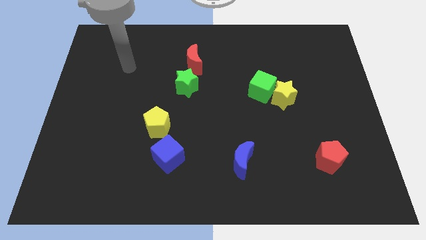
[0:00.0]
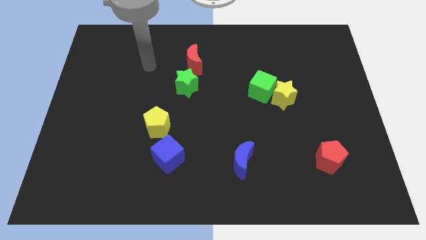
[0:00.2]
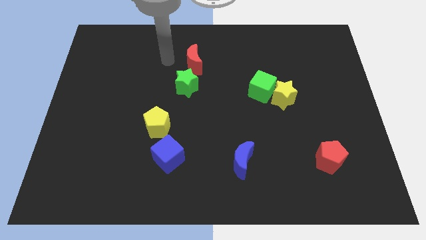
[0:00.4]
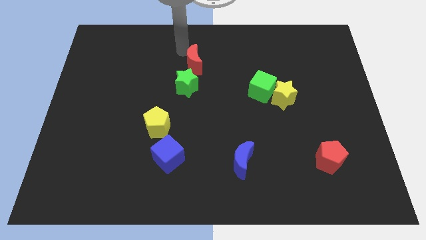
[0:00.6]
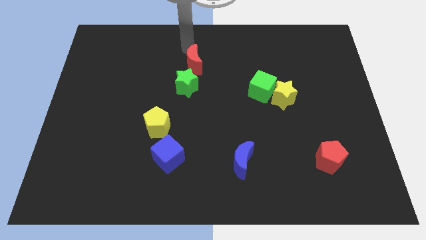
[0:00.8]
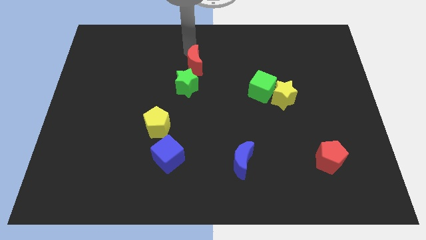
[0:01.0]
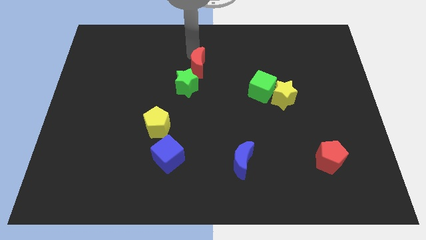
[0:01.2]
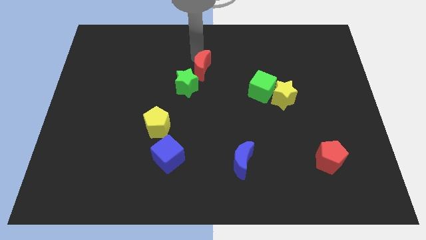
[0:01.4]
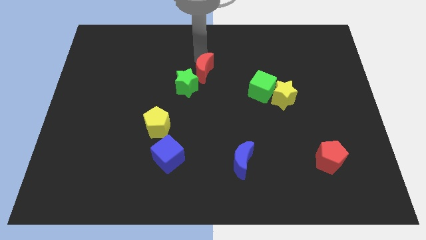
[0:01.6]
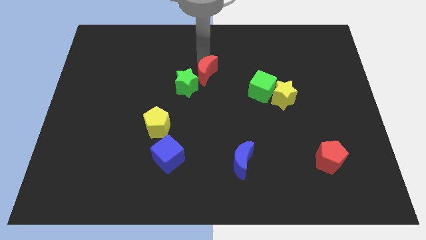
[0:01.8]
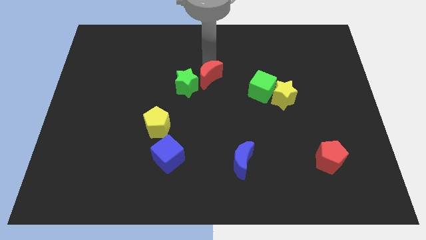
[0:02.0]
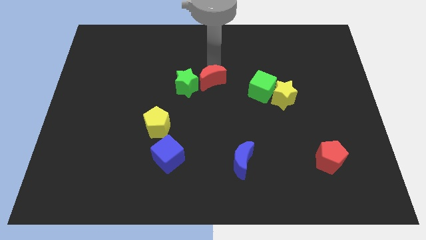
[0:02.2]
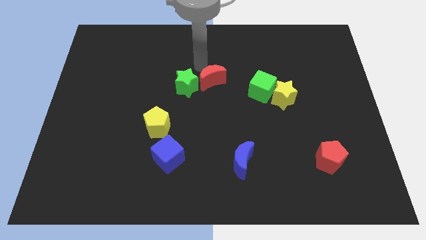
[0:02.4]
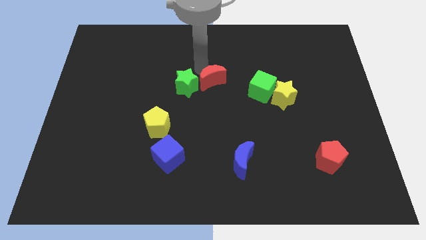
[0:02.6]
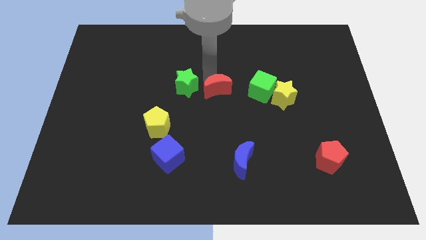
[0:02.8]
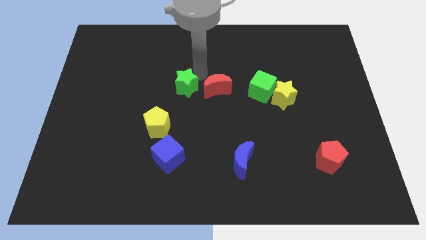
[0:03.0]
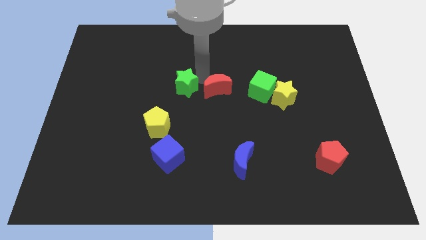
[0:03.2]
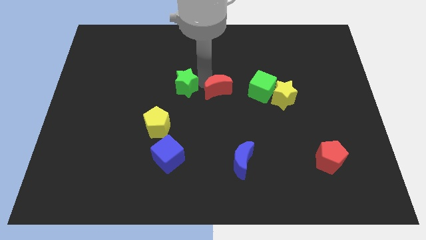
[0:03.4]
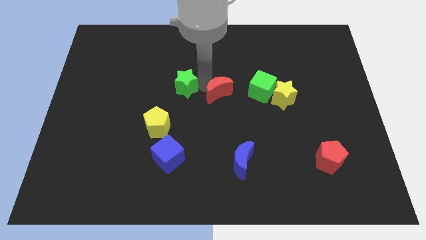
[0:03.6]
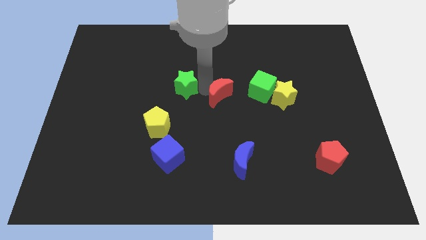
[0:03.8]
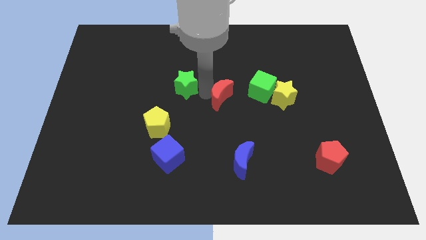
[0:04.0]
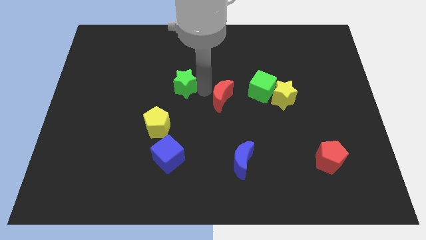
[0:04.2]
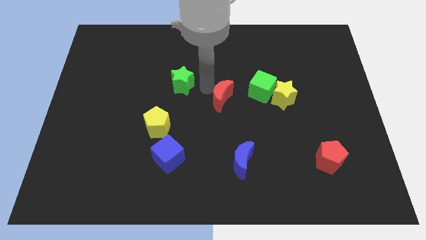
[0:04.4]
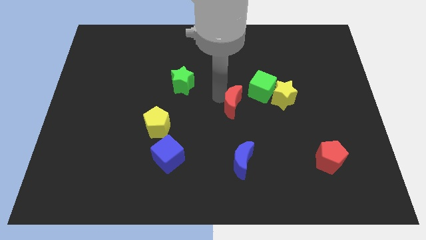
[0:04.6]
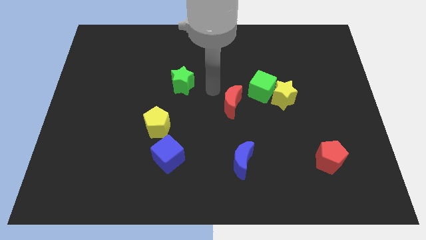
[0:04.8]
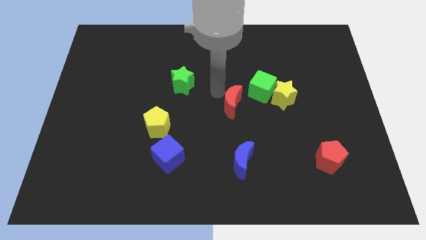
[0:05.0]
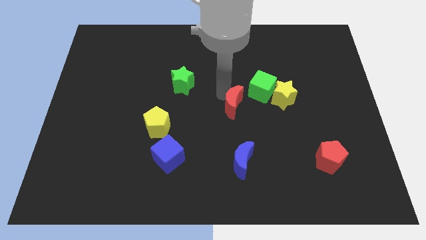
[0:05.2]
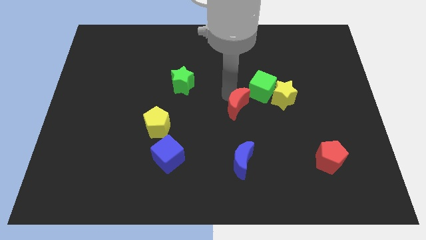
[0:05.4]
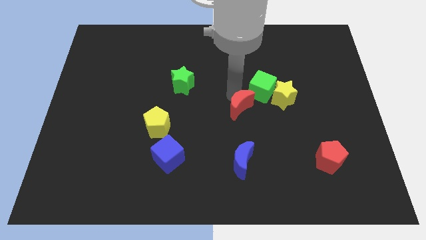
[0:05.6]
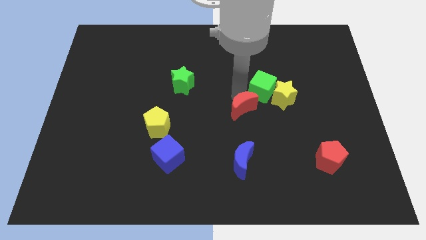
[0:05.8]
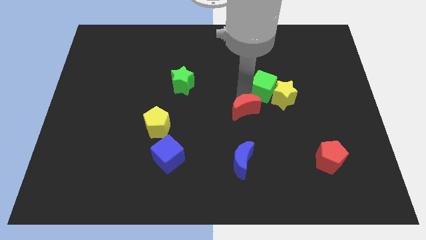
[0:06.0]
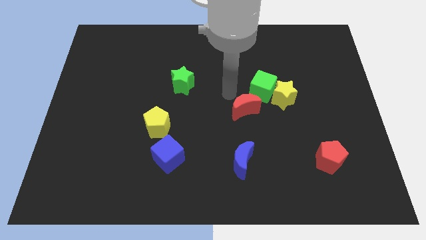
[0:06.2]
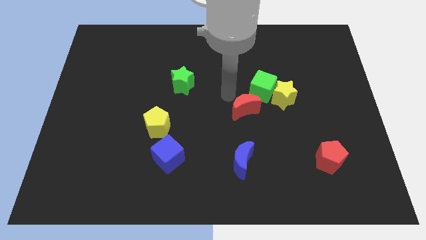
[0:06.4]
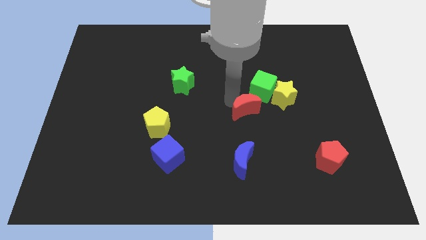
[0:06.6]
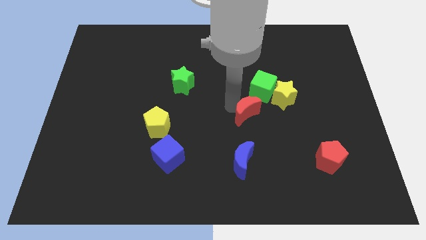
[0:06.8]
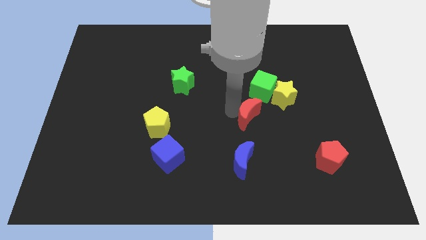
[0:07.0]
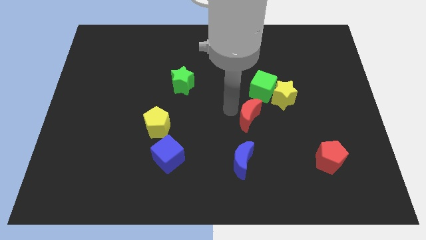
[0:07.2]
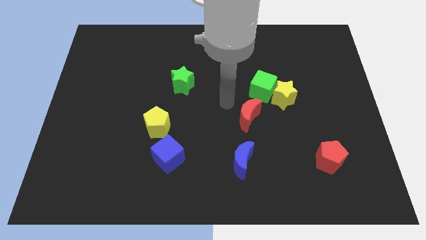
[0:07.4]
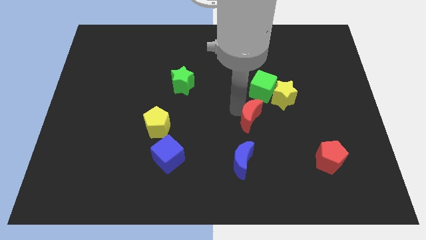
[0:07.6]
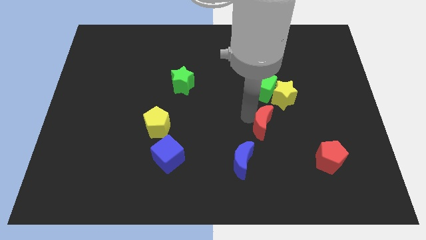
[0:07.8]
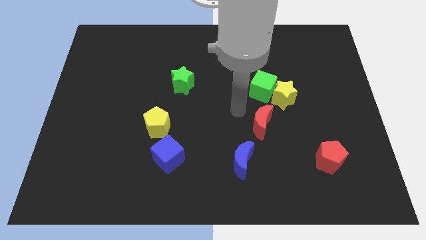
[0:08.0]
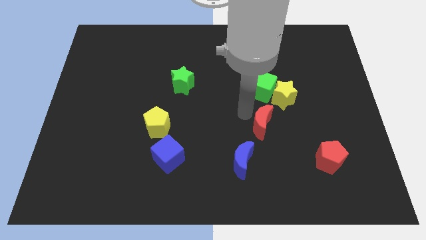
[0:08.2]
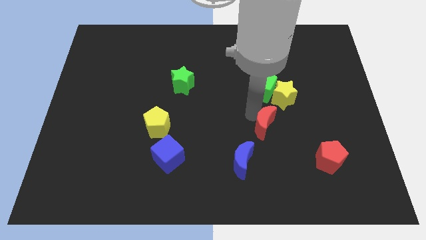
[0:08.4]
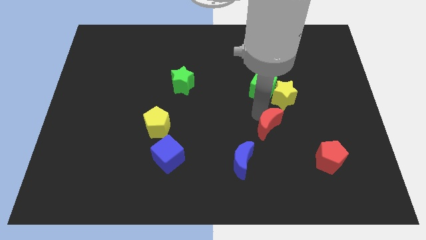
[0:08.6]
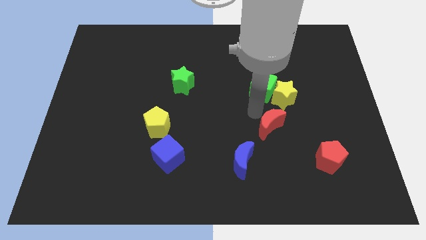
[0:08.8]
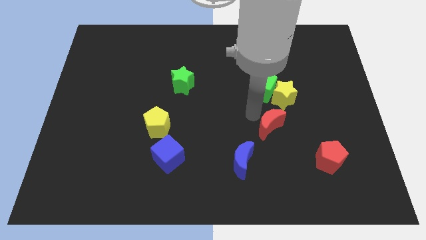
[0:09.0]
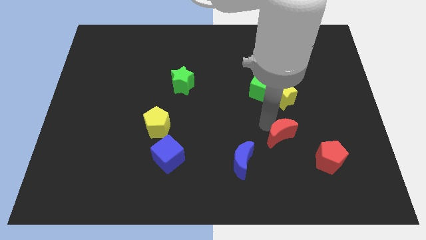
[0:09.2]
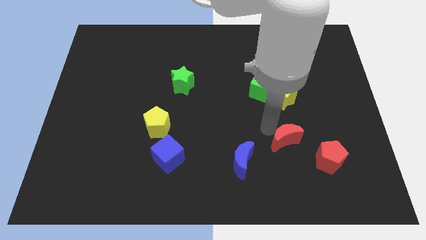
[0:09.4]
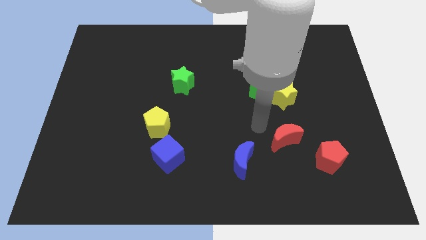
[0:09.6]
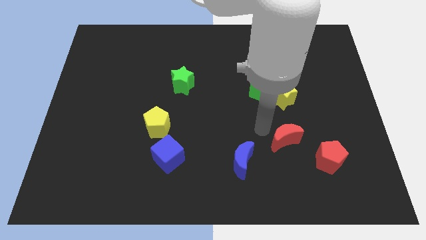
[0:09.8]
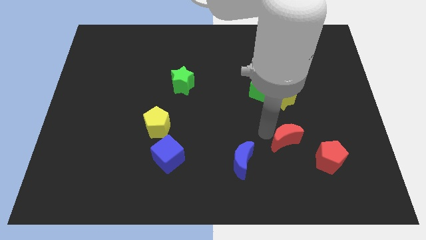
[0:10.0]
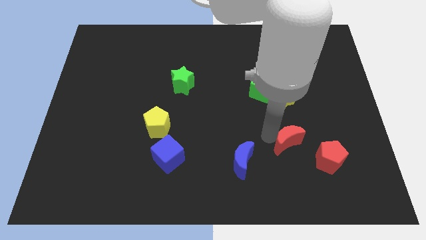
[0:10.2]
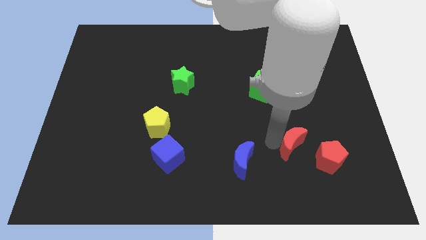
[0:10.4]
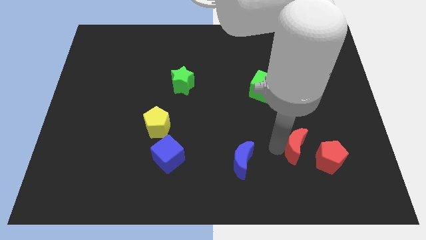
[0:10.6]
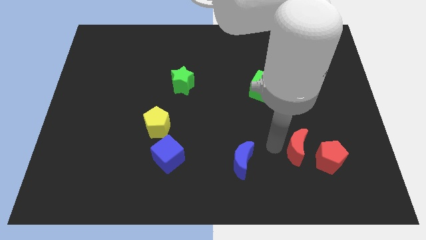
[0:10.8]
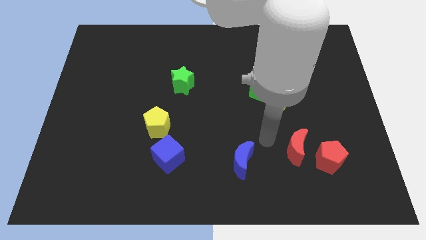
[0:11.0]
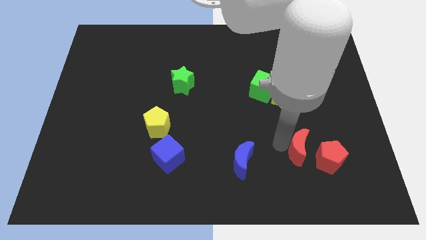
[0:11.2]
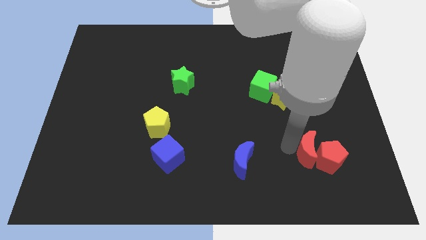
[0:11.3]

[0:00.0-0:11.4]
slide the red moon close to the red pentagon

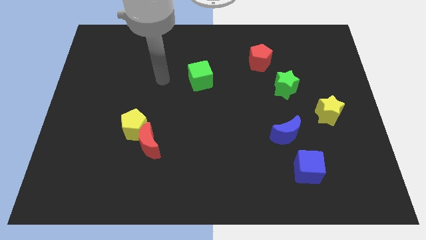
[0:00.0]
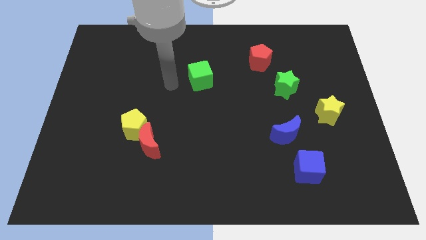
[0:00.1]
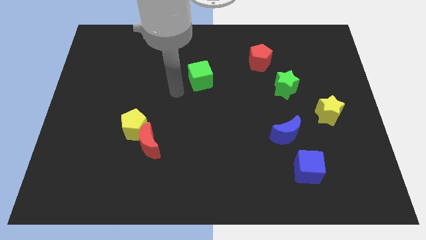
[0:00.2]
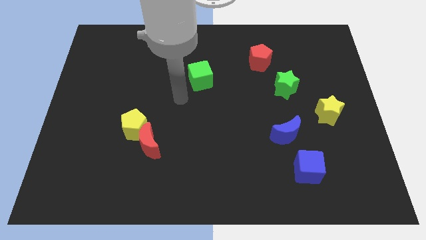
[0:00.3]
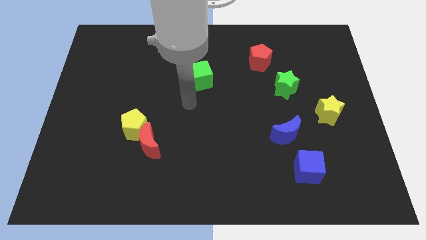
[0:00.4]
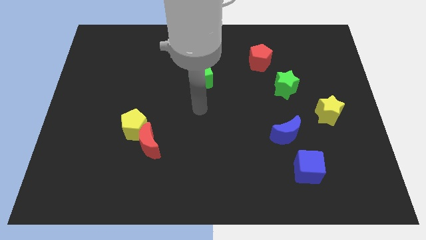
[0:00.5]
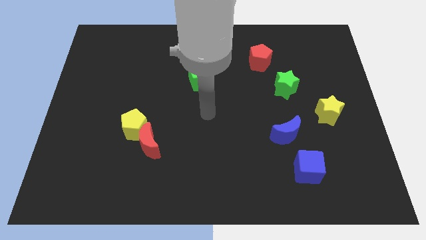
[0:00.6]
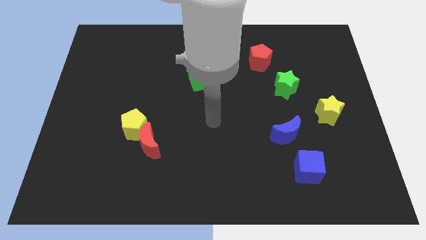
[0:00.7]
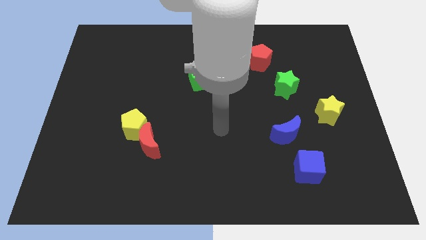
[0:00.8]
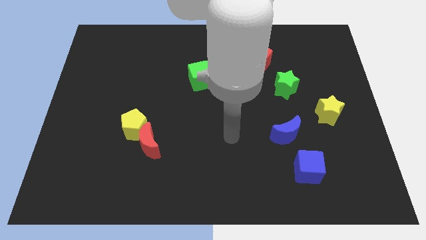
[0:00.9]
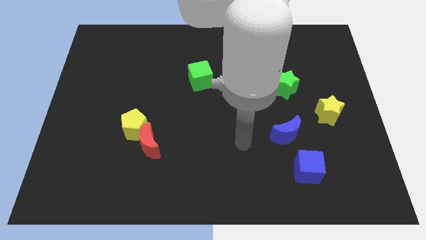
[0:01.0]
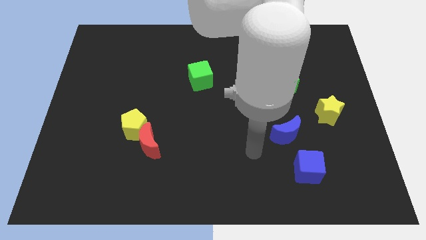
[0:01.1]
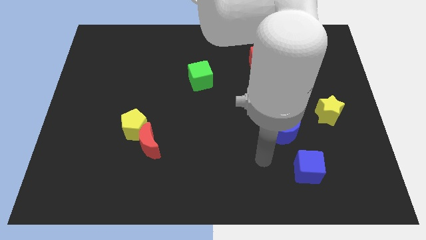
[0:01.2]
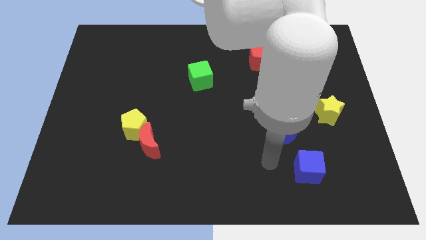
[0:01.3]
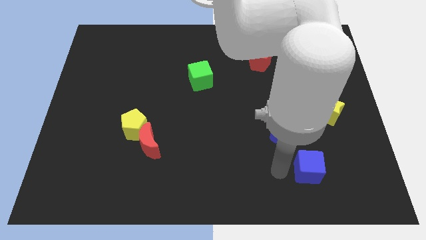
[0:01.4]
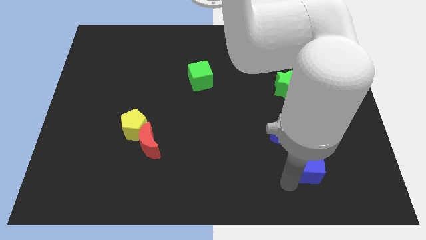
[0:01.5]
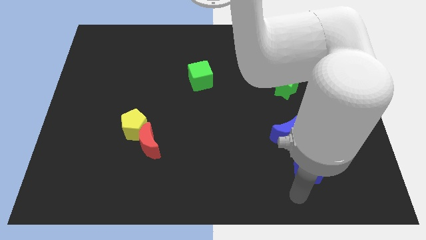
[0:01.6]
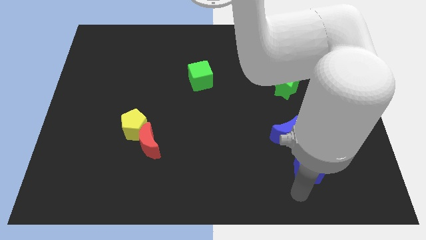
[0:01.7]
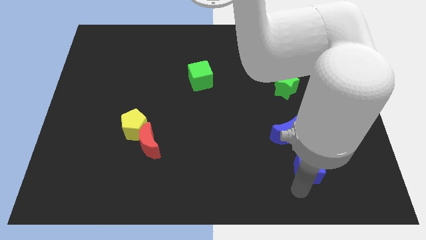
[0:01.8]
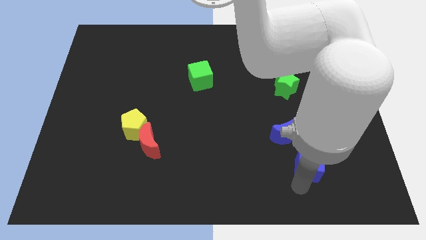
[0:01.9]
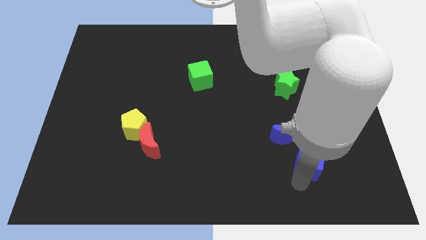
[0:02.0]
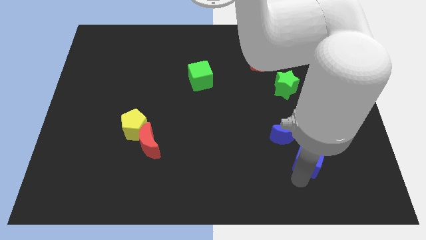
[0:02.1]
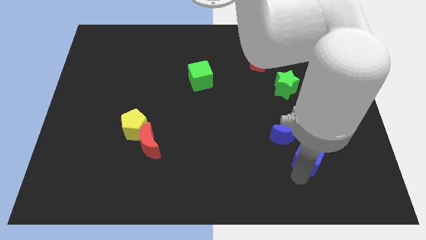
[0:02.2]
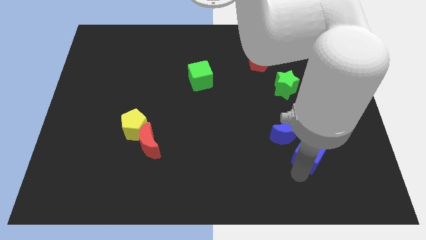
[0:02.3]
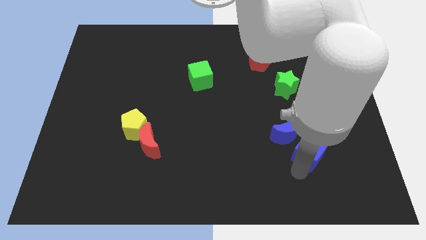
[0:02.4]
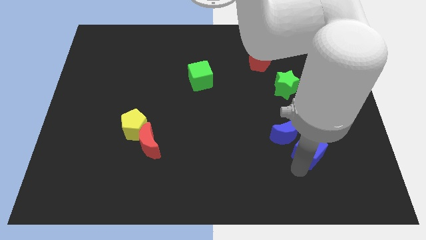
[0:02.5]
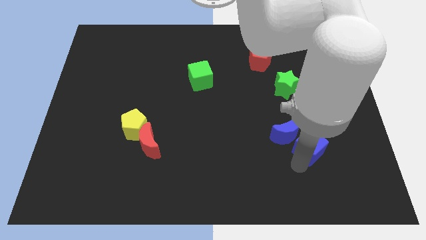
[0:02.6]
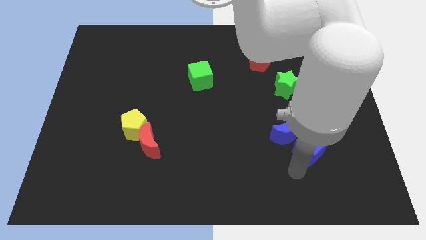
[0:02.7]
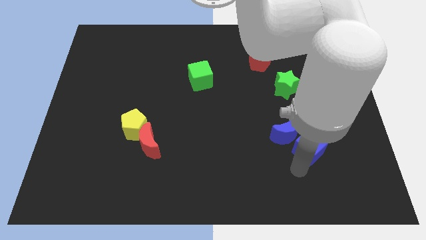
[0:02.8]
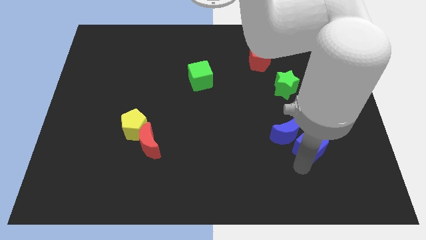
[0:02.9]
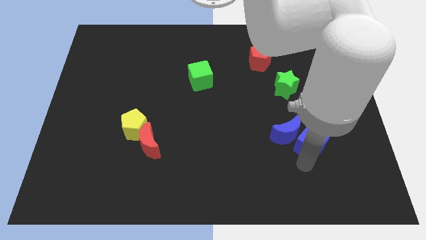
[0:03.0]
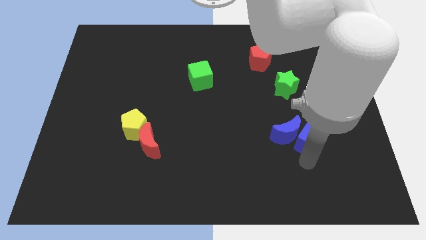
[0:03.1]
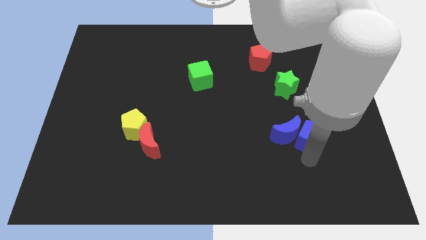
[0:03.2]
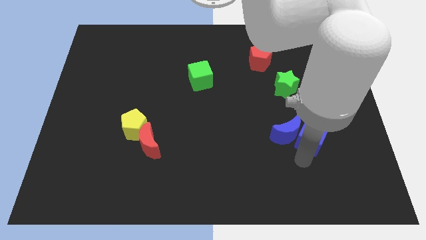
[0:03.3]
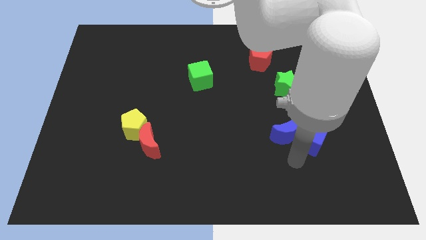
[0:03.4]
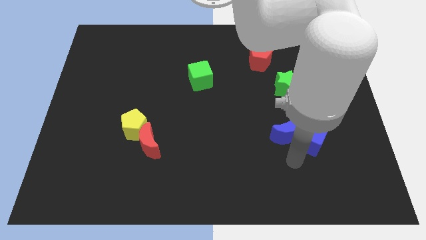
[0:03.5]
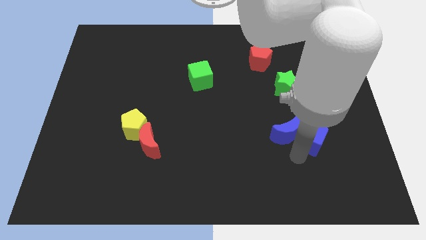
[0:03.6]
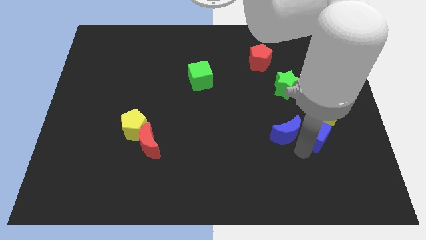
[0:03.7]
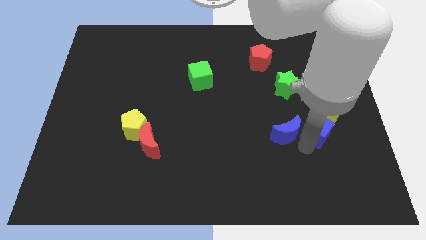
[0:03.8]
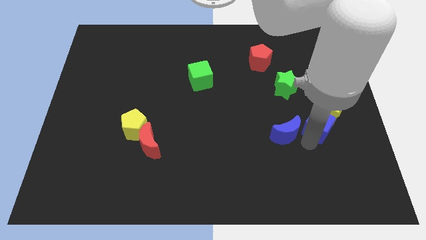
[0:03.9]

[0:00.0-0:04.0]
move the blue cube to the yellow star
